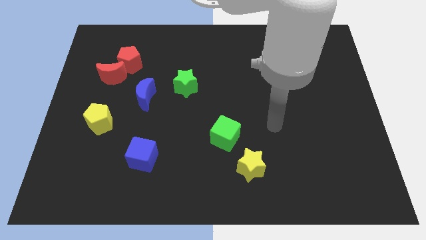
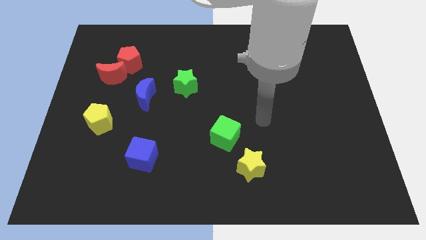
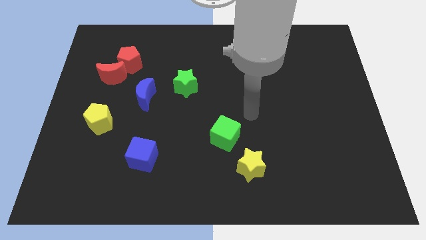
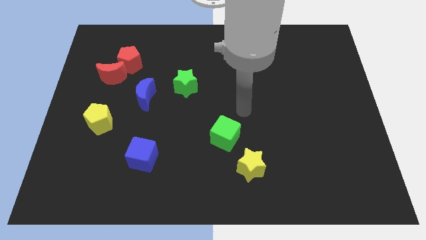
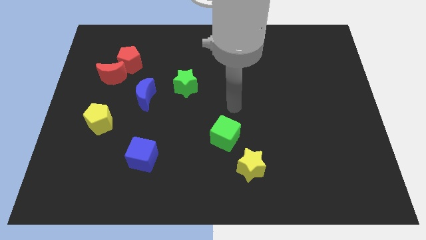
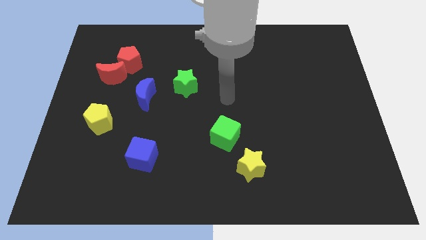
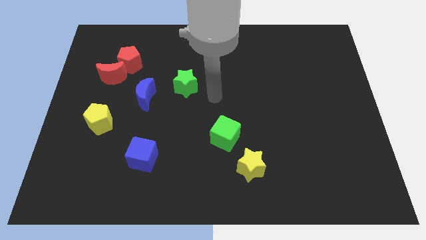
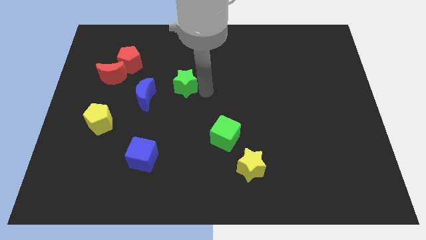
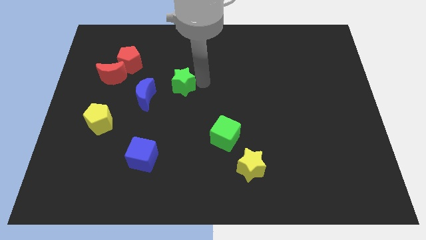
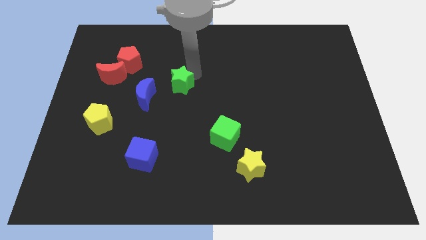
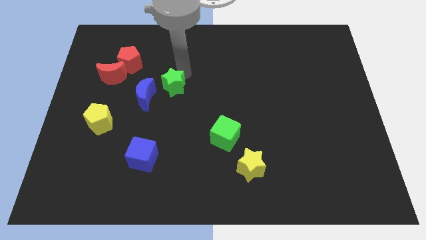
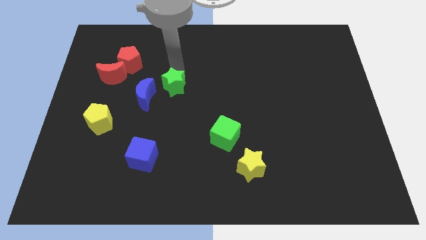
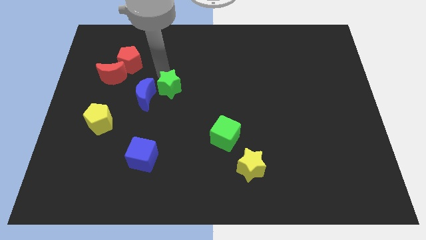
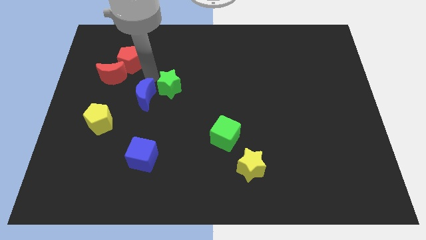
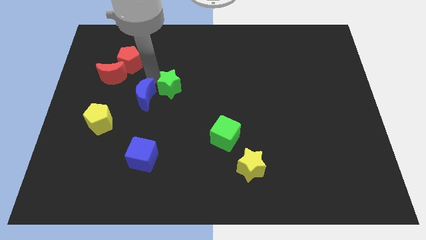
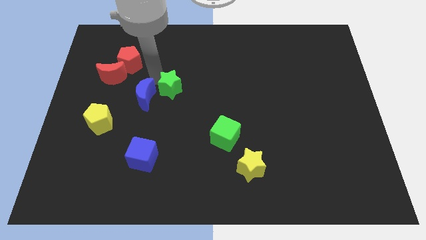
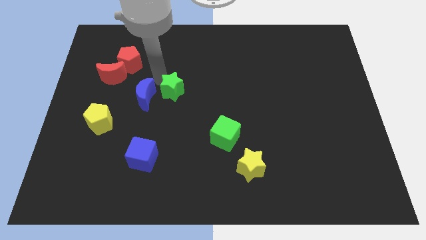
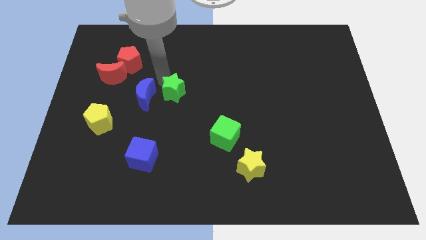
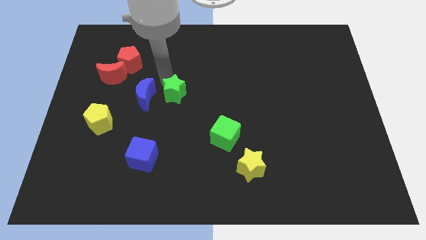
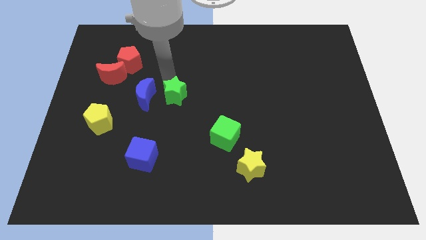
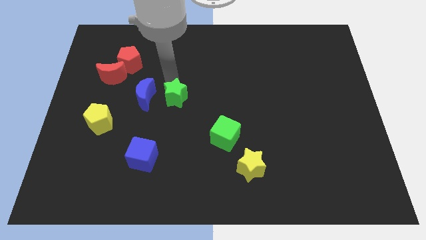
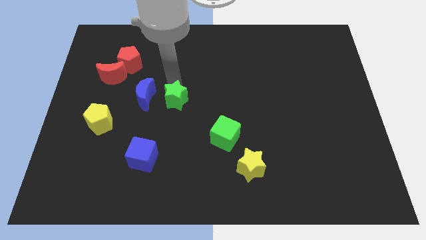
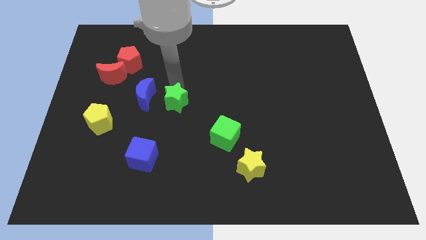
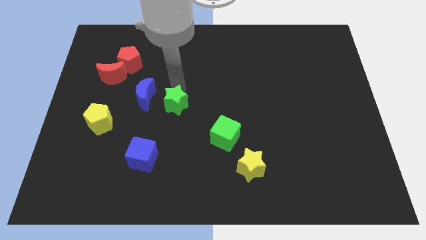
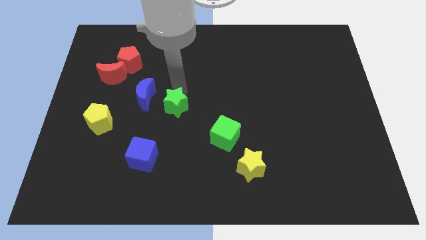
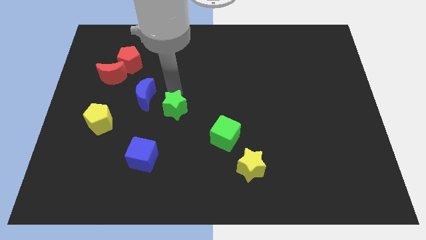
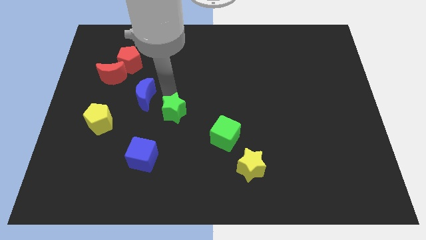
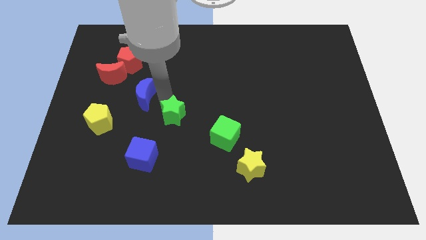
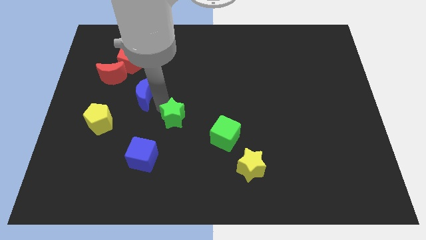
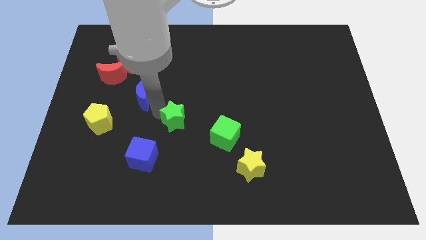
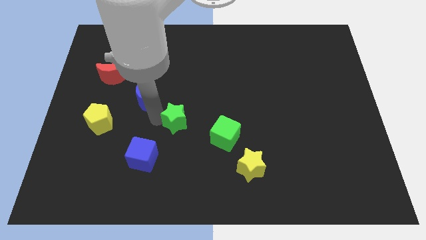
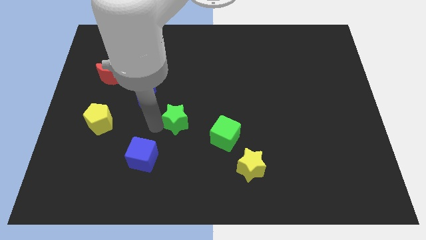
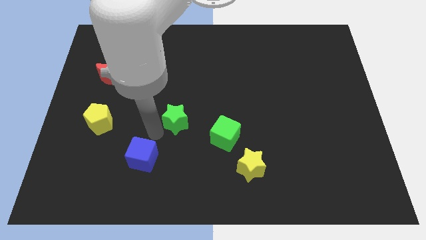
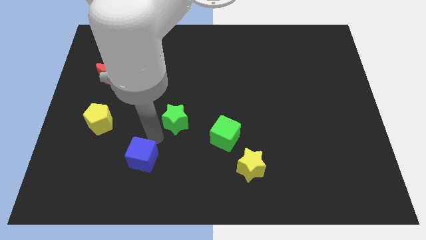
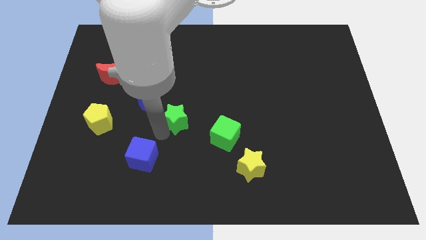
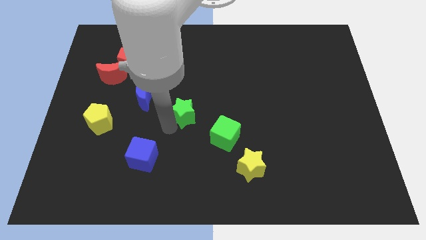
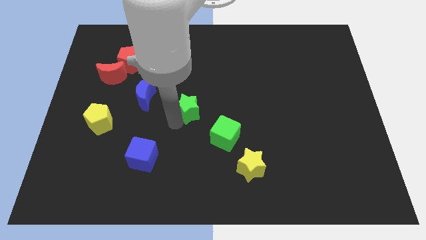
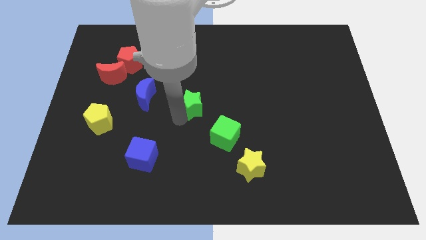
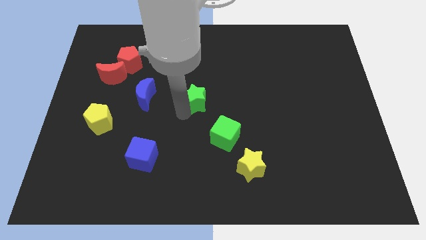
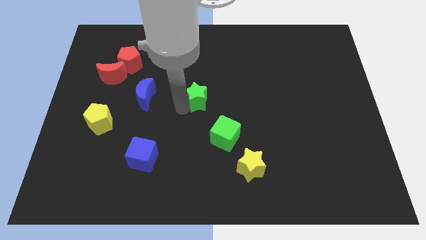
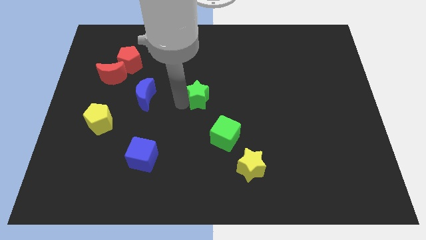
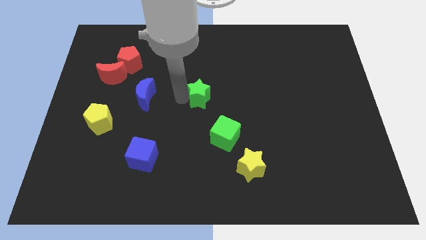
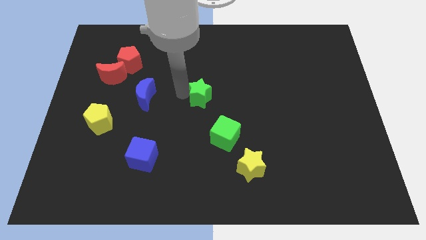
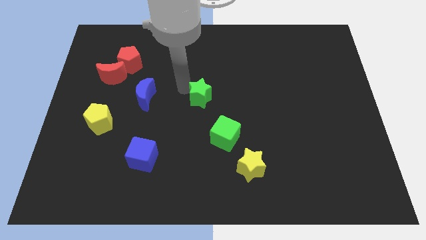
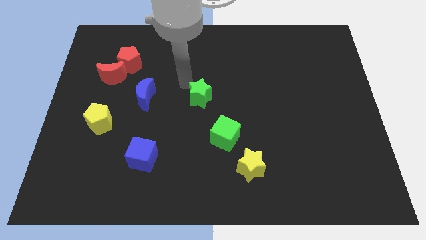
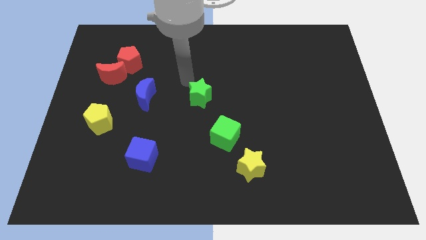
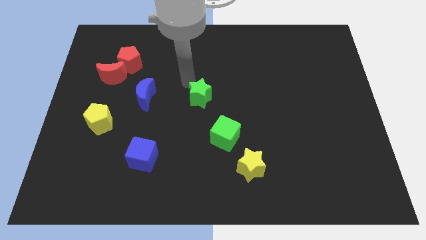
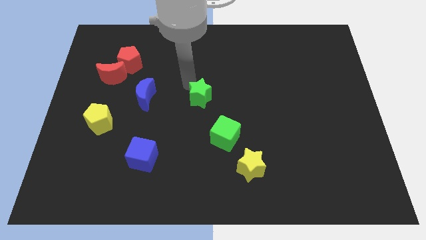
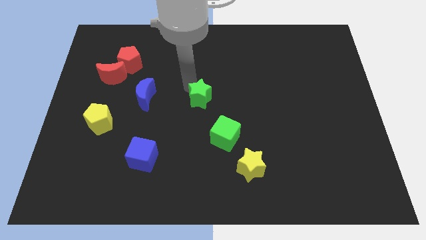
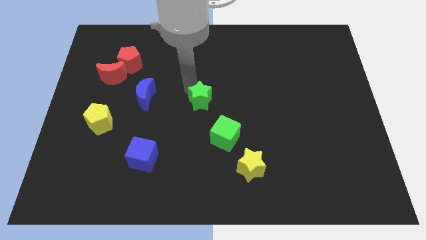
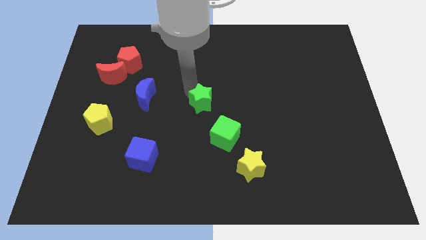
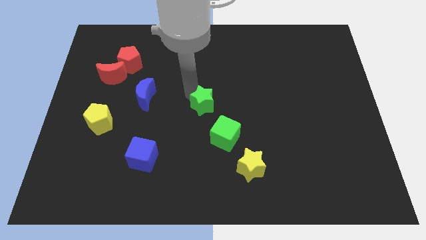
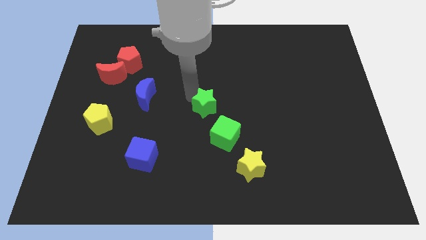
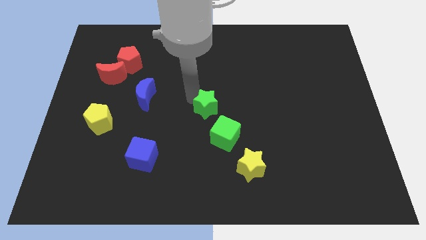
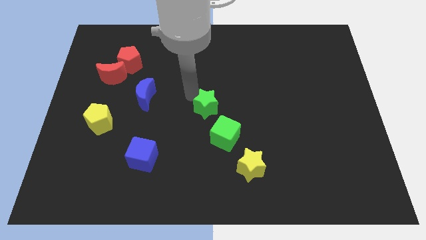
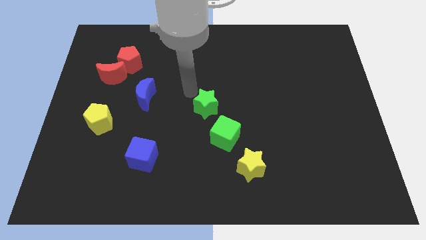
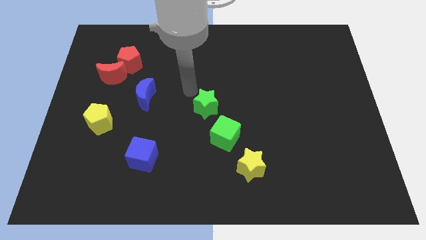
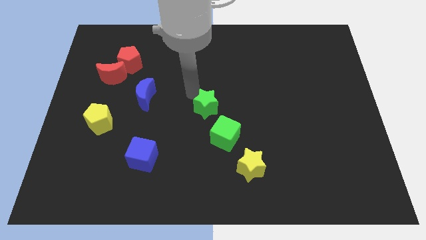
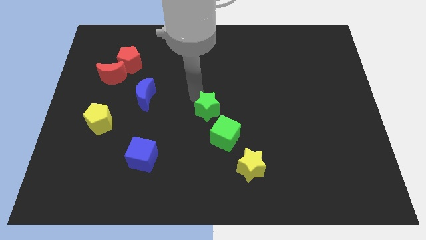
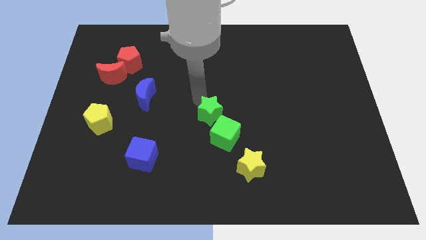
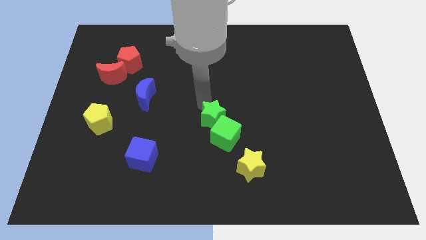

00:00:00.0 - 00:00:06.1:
move the green star close to the green cube

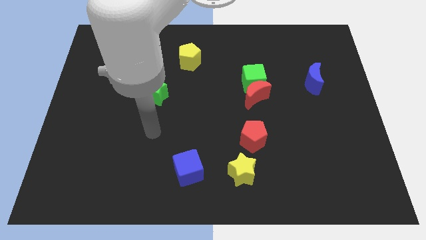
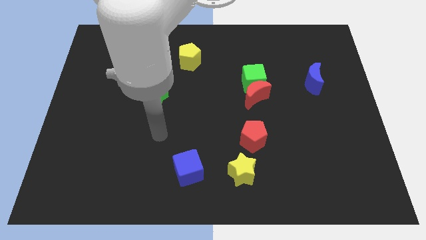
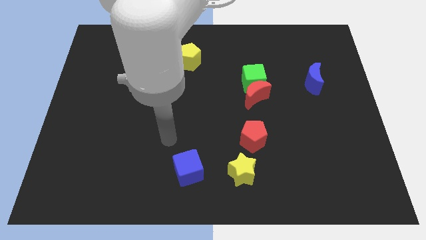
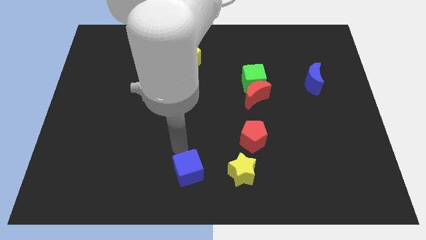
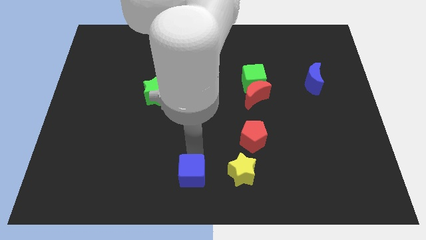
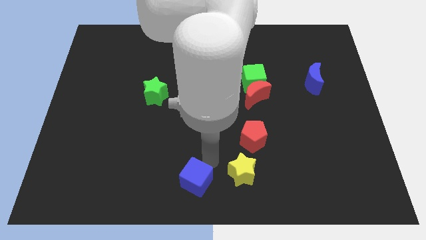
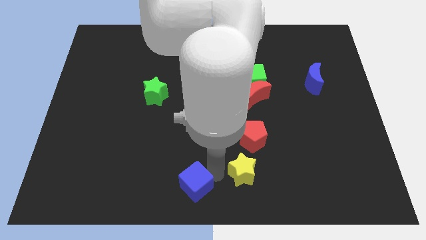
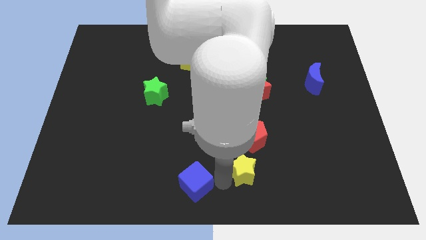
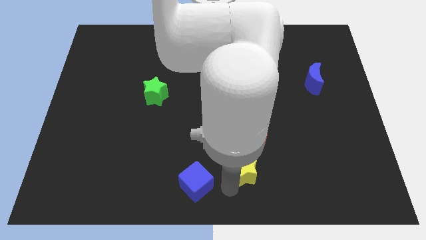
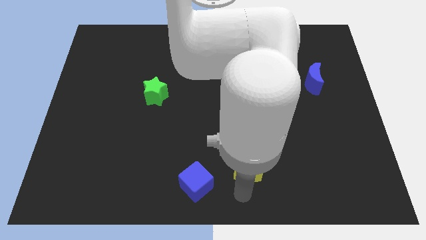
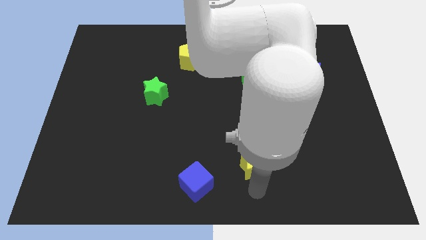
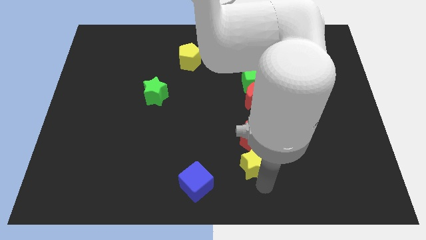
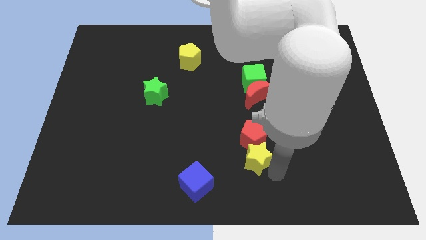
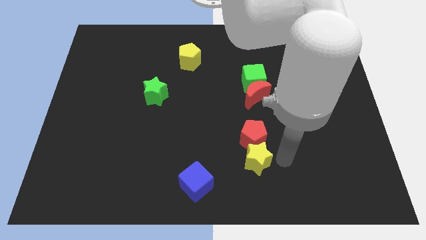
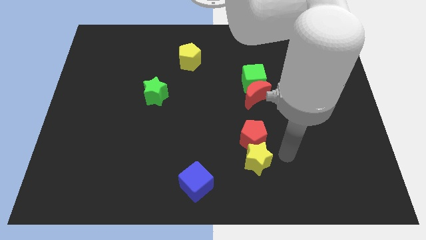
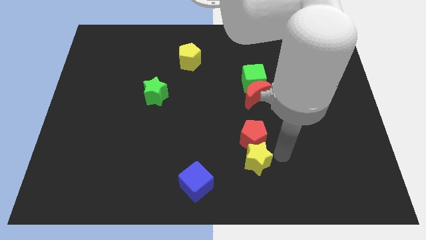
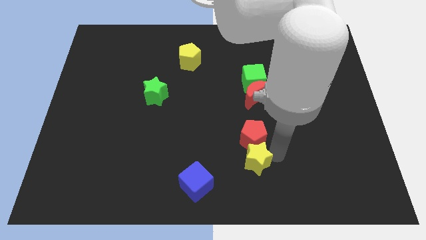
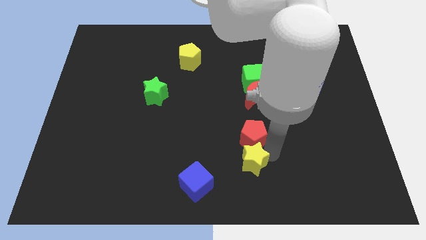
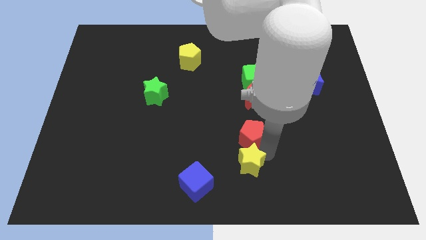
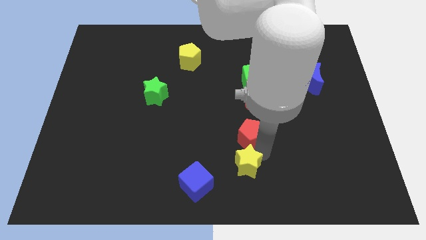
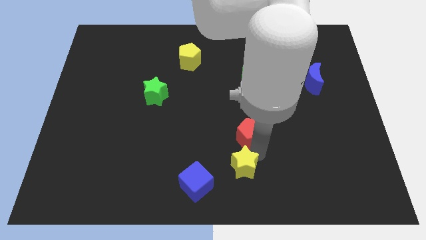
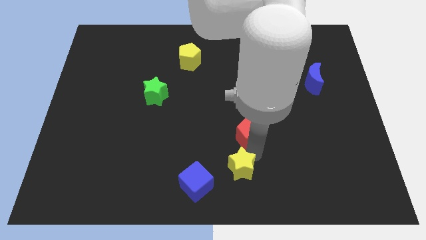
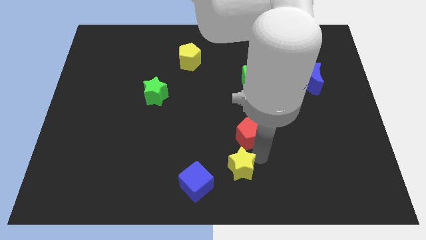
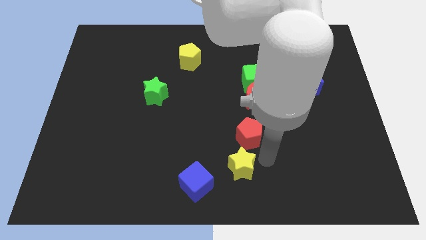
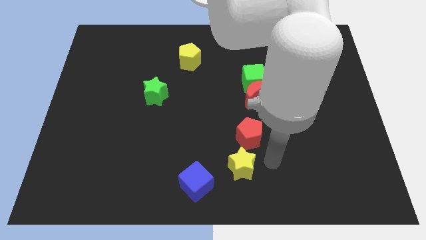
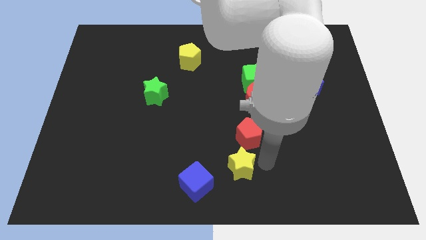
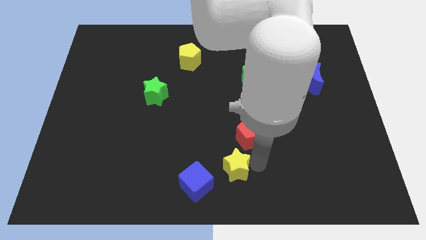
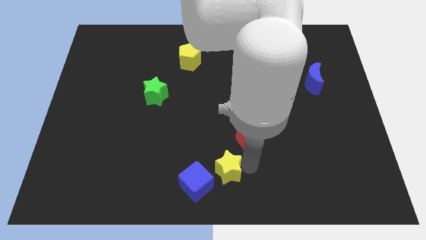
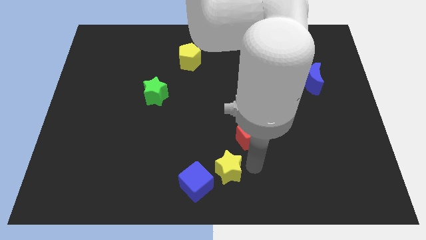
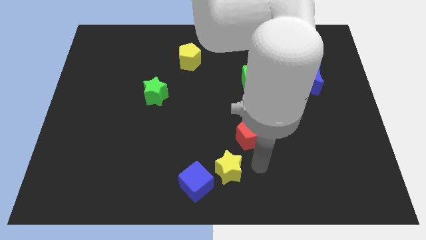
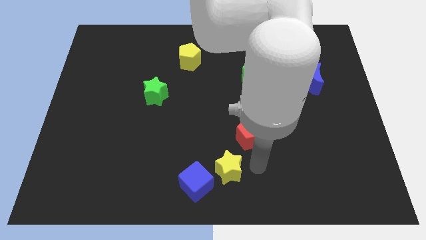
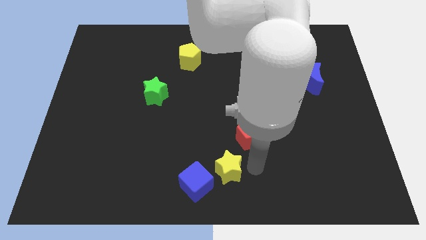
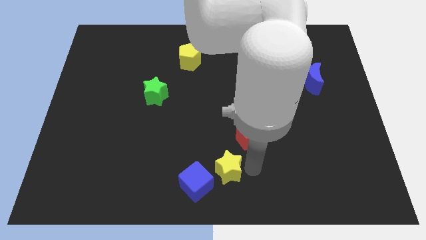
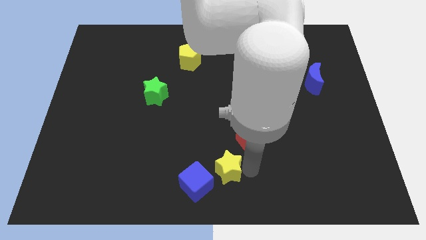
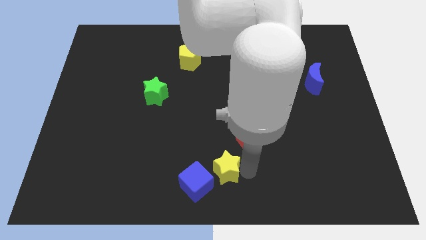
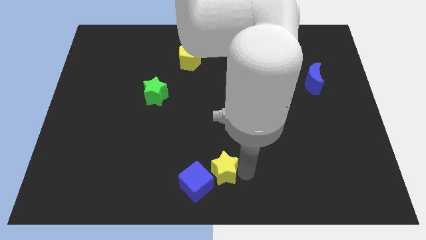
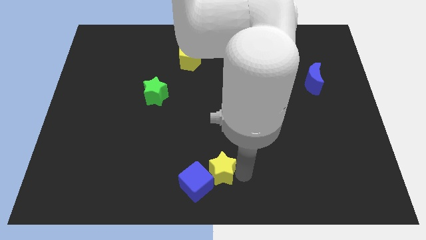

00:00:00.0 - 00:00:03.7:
slide the yellow star close to the blue cube
